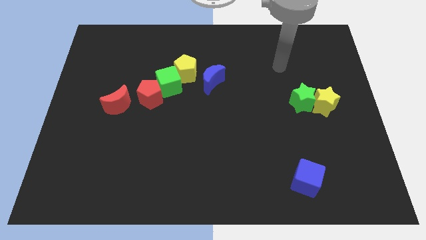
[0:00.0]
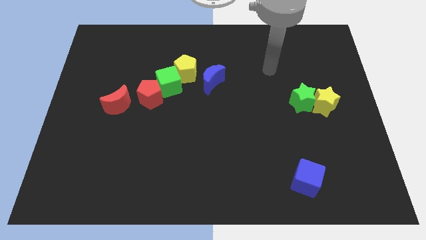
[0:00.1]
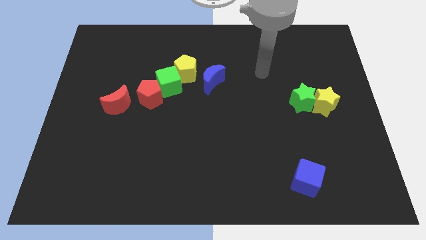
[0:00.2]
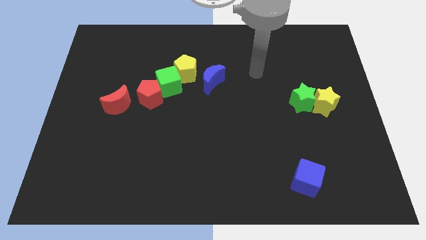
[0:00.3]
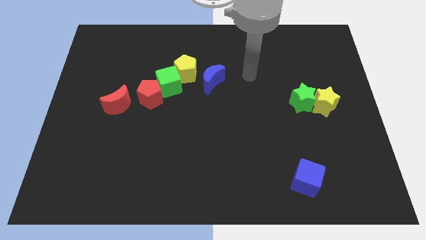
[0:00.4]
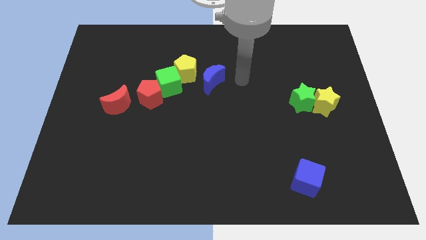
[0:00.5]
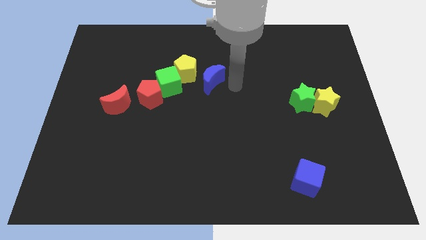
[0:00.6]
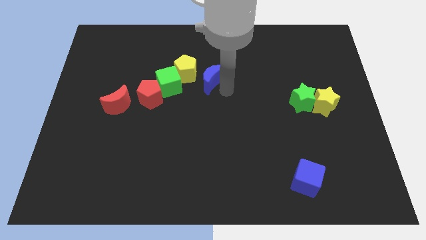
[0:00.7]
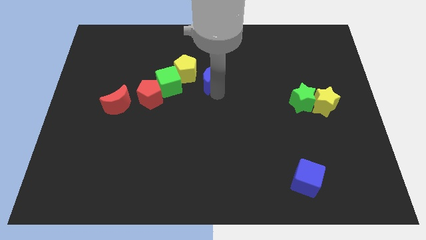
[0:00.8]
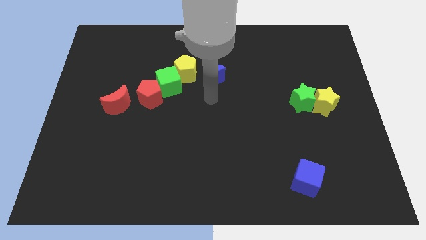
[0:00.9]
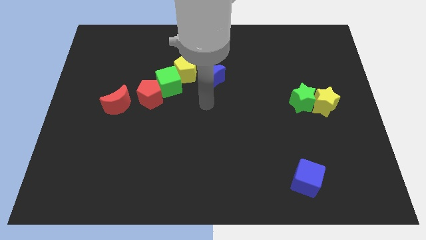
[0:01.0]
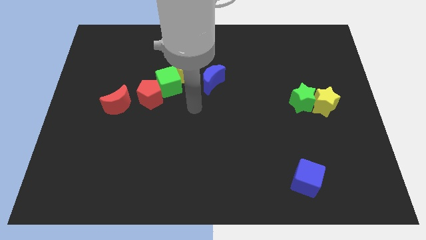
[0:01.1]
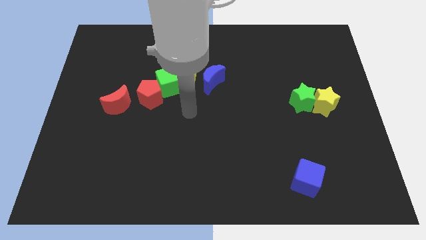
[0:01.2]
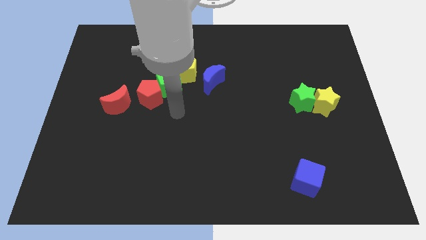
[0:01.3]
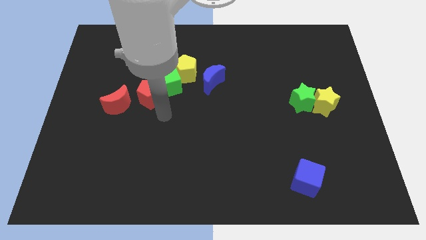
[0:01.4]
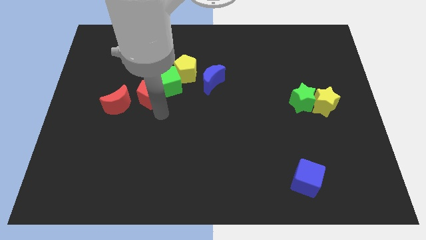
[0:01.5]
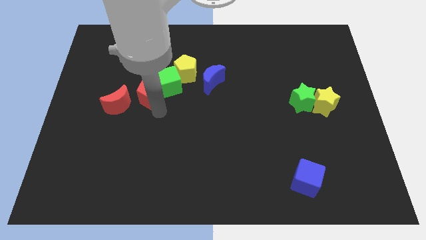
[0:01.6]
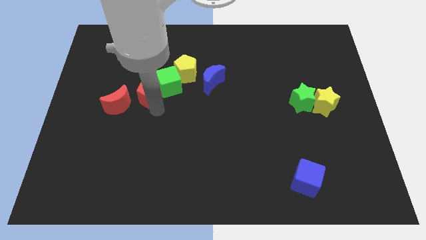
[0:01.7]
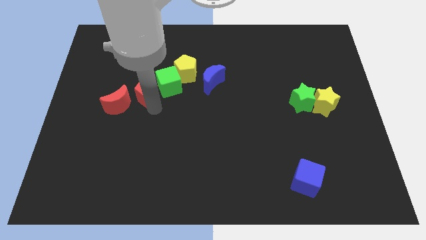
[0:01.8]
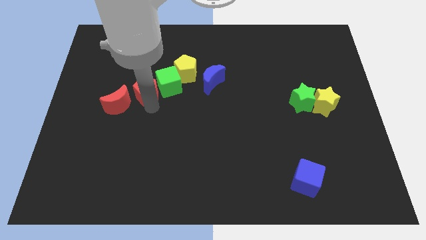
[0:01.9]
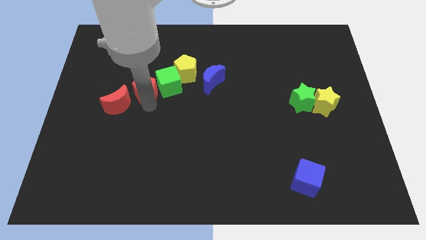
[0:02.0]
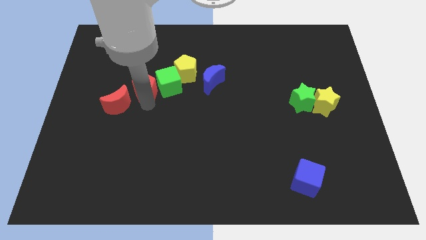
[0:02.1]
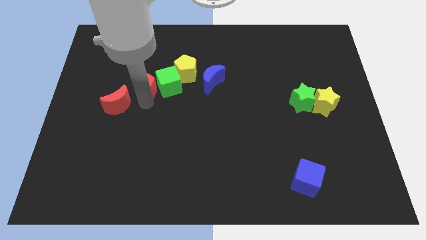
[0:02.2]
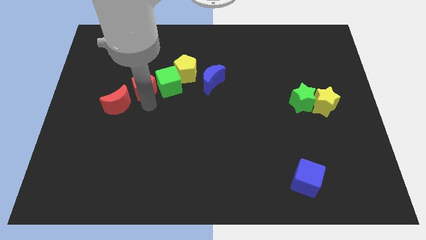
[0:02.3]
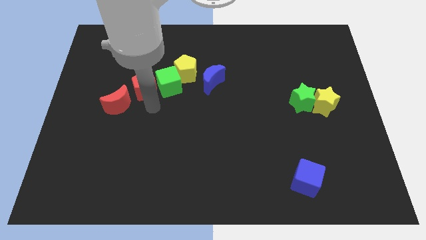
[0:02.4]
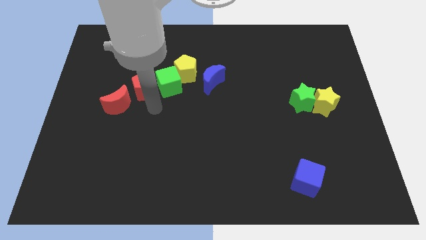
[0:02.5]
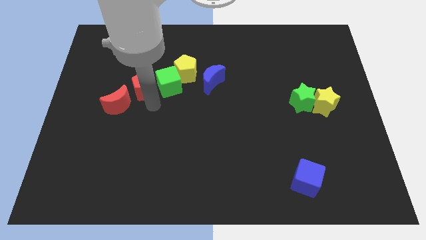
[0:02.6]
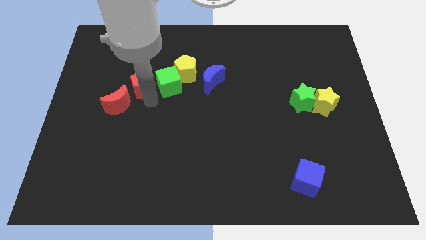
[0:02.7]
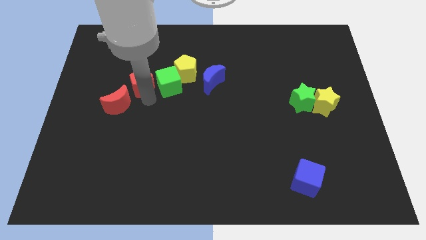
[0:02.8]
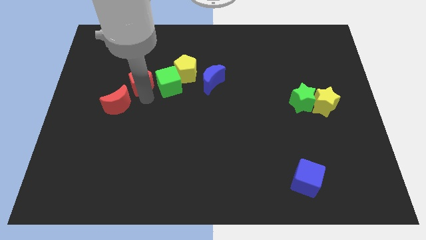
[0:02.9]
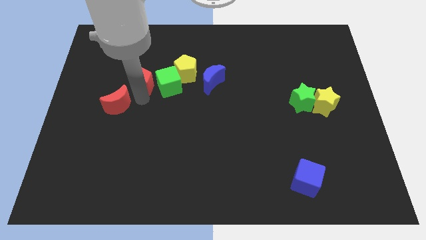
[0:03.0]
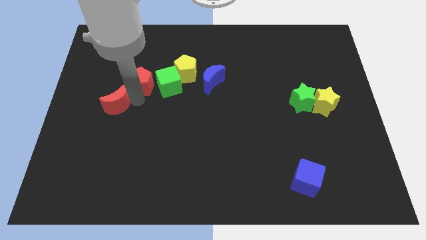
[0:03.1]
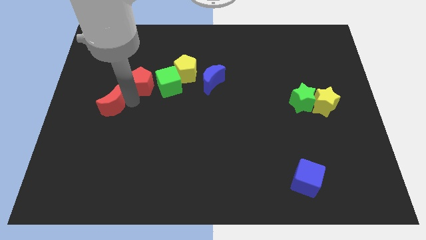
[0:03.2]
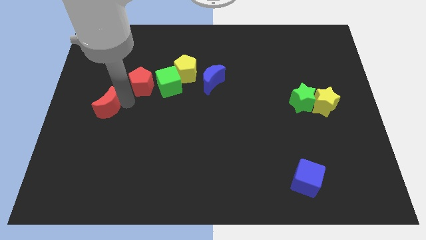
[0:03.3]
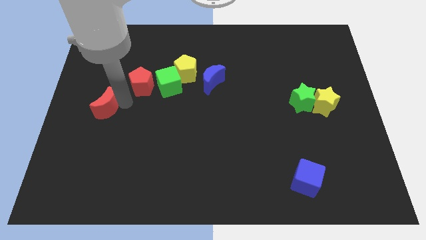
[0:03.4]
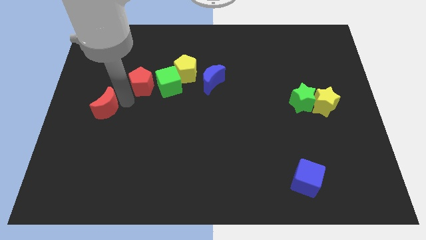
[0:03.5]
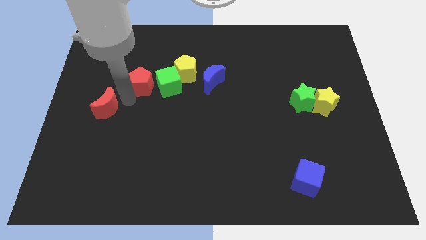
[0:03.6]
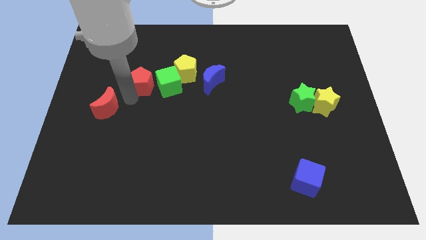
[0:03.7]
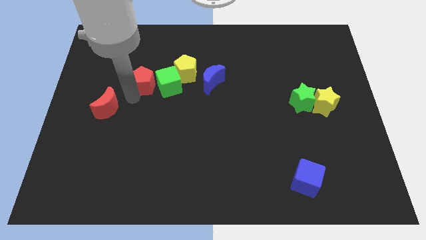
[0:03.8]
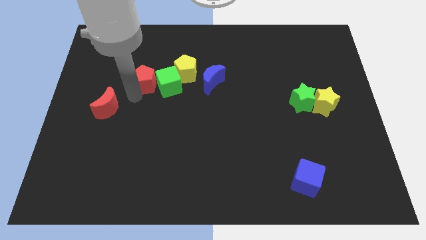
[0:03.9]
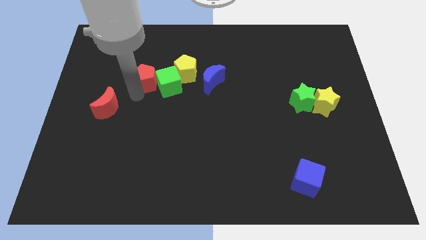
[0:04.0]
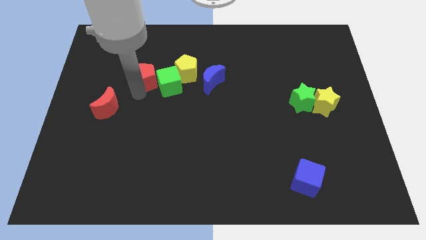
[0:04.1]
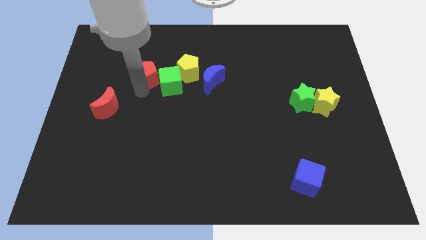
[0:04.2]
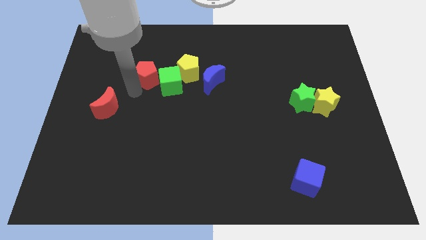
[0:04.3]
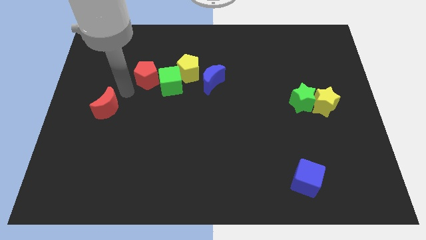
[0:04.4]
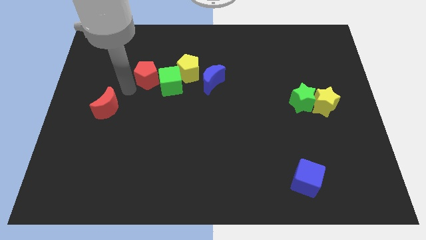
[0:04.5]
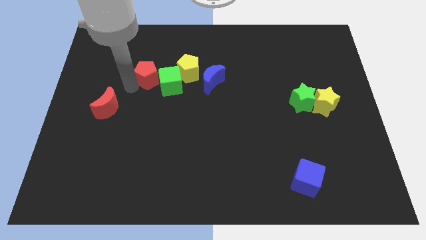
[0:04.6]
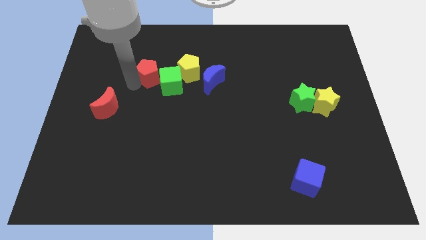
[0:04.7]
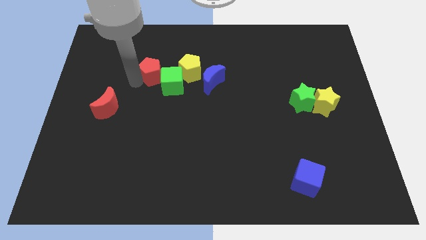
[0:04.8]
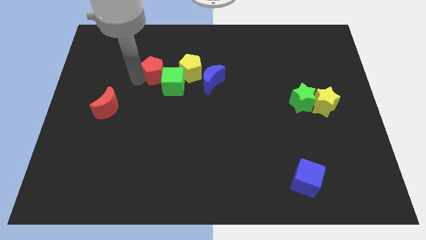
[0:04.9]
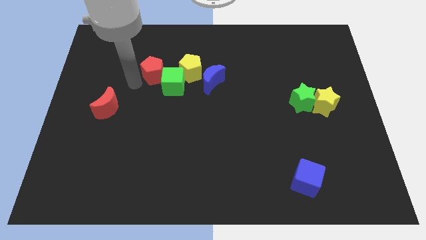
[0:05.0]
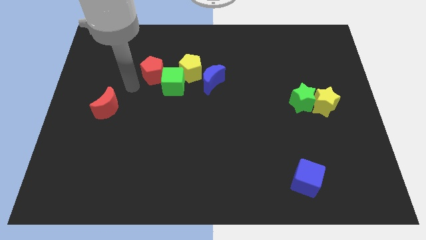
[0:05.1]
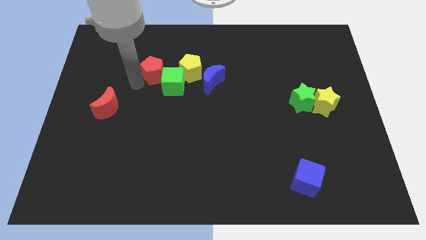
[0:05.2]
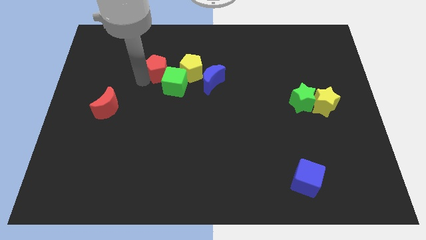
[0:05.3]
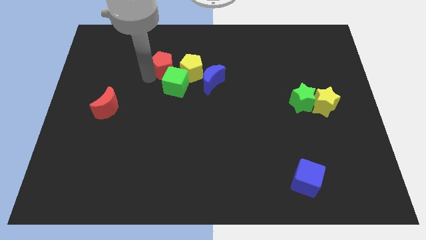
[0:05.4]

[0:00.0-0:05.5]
move the red pentagon a little bit up and then to the right

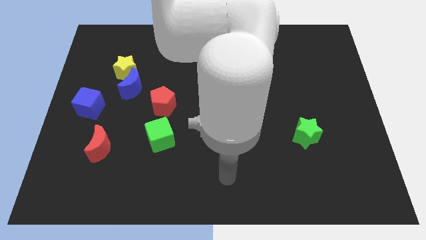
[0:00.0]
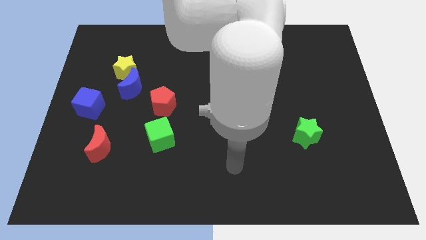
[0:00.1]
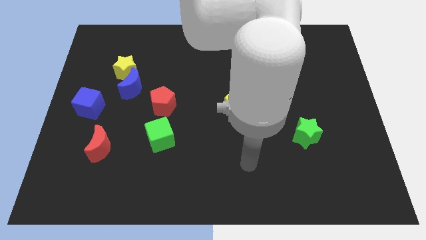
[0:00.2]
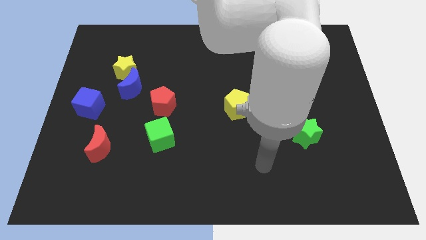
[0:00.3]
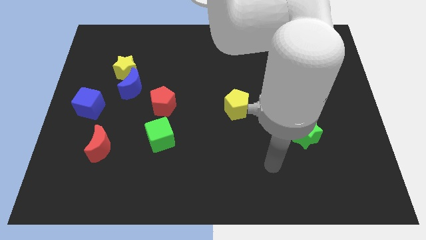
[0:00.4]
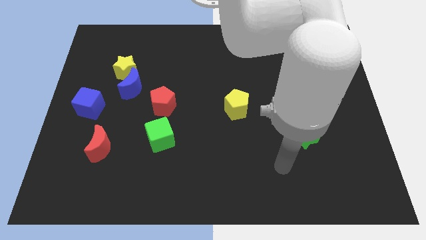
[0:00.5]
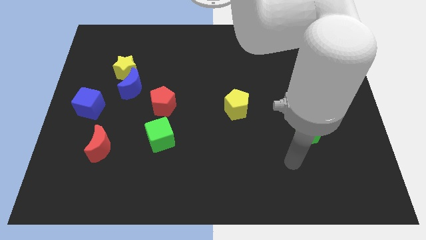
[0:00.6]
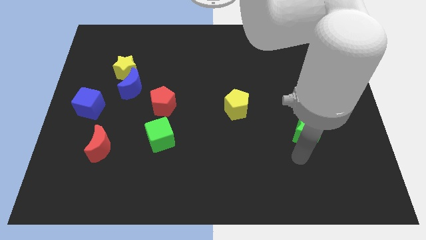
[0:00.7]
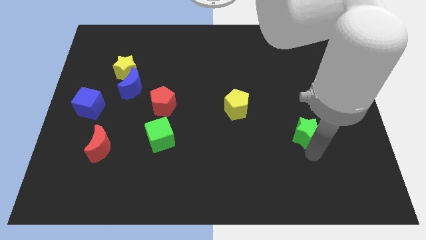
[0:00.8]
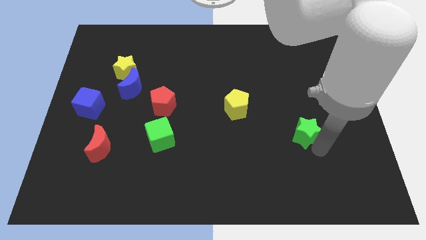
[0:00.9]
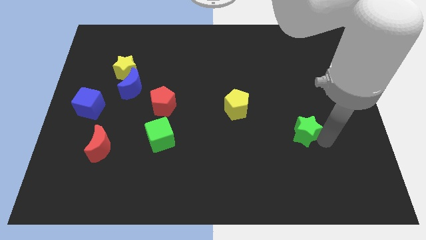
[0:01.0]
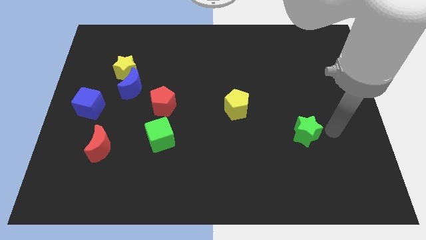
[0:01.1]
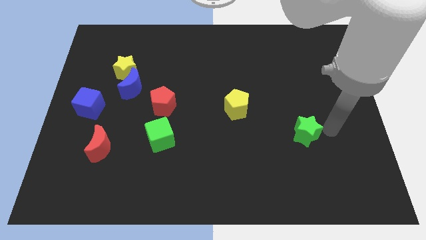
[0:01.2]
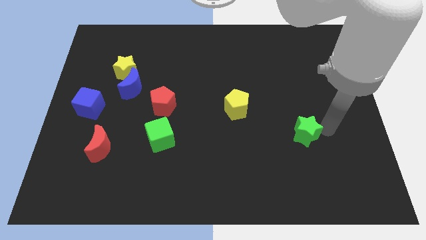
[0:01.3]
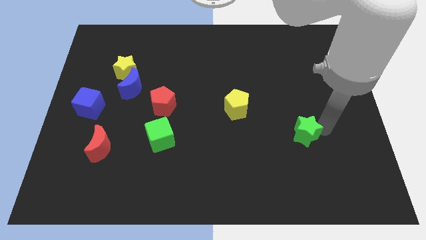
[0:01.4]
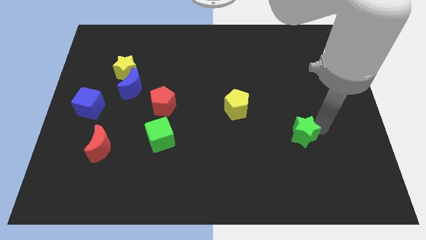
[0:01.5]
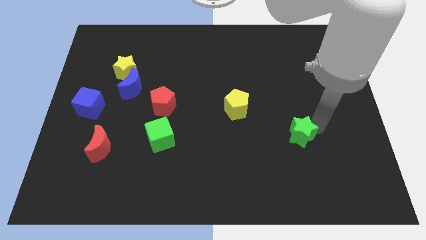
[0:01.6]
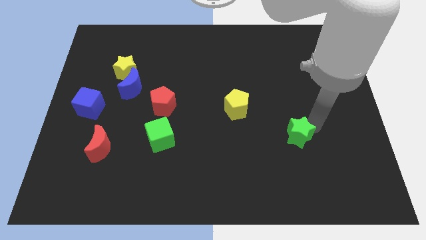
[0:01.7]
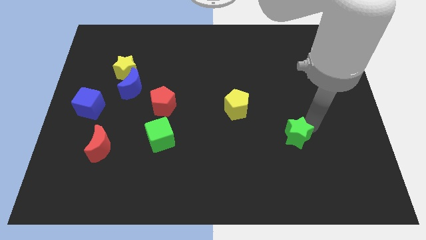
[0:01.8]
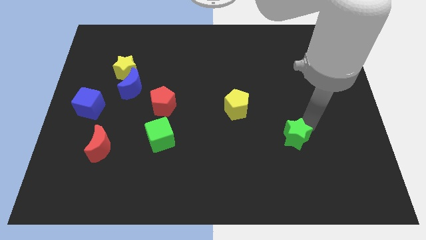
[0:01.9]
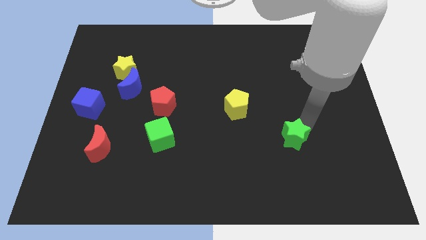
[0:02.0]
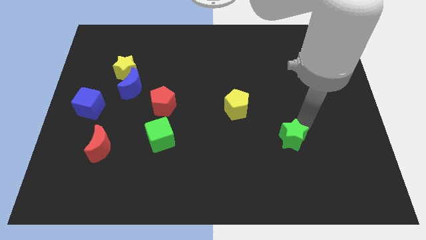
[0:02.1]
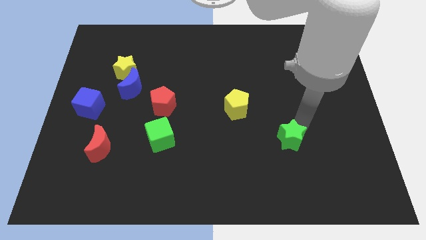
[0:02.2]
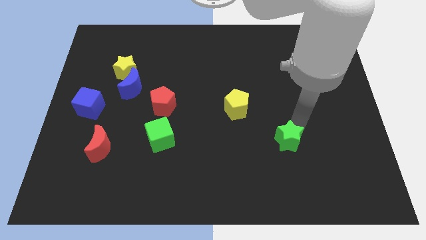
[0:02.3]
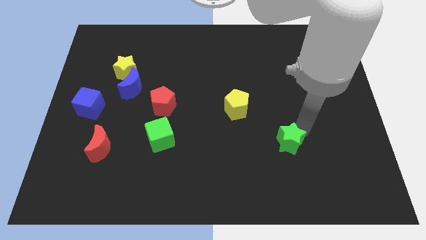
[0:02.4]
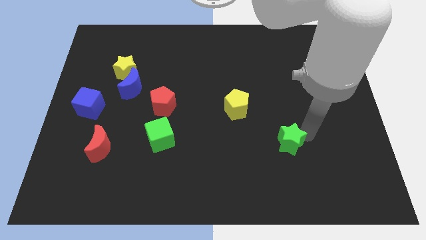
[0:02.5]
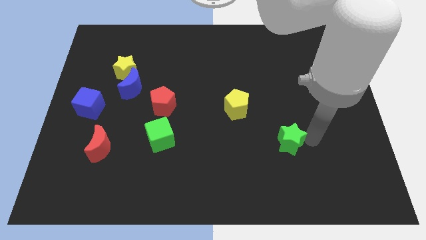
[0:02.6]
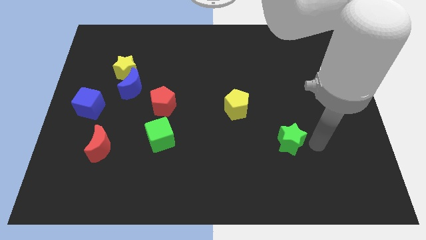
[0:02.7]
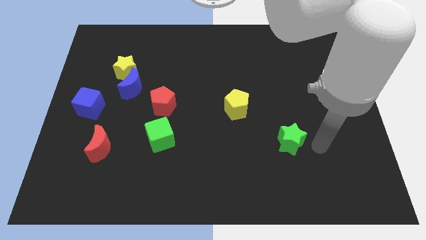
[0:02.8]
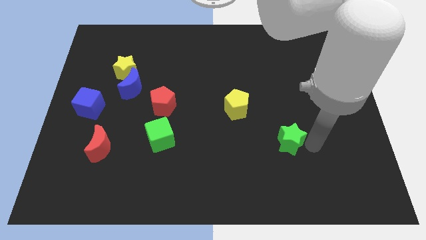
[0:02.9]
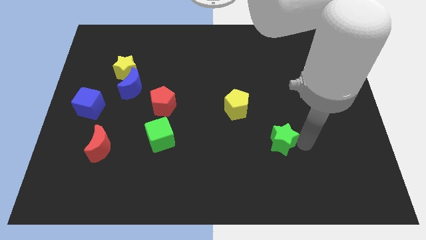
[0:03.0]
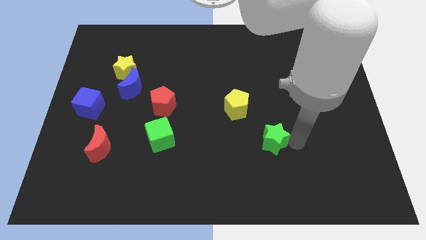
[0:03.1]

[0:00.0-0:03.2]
slide the green star a little bit to the left
